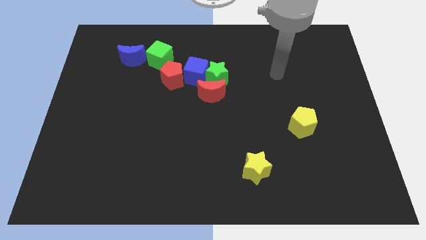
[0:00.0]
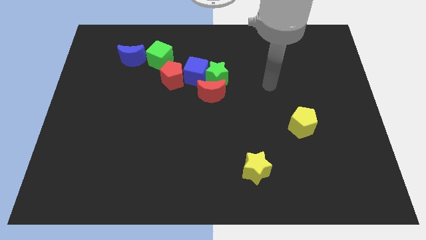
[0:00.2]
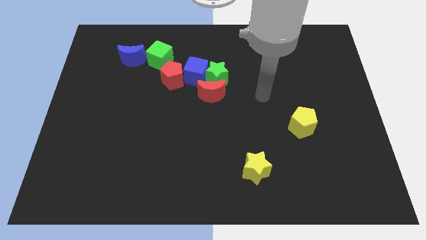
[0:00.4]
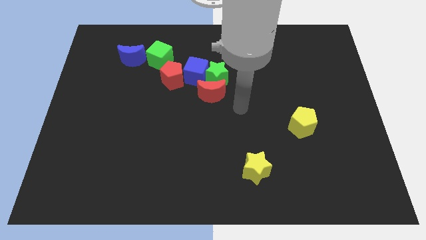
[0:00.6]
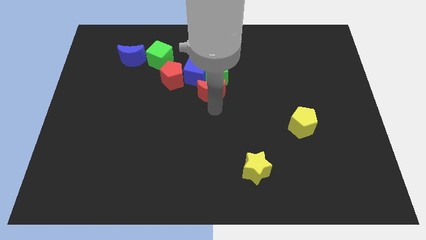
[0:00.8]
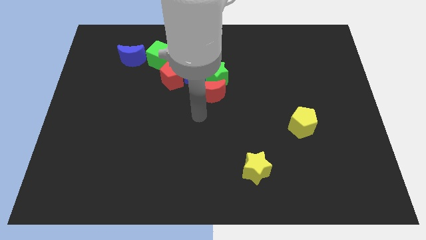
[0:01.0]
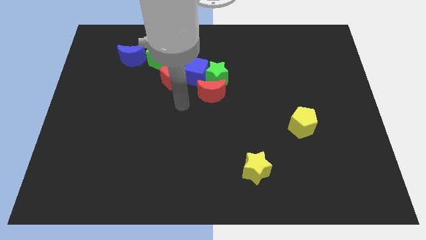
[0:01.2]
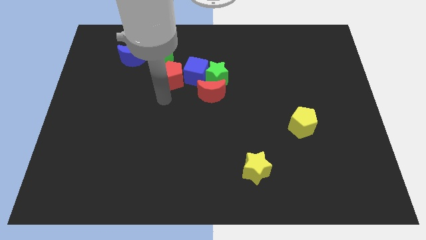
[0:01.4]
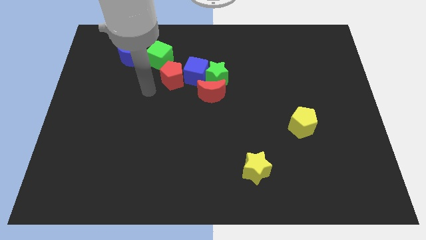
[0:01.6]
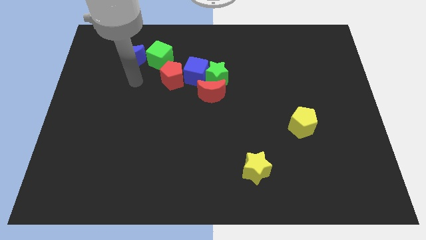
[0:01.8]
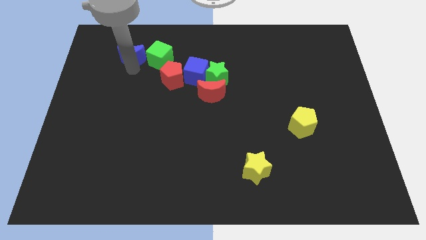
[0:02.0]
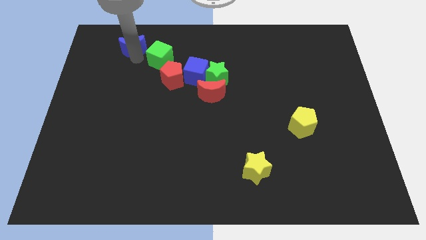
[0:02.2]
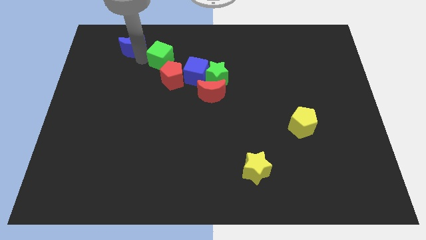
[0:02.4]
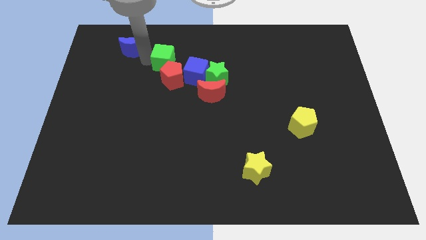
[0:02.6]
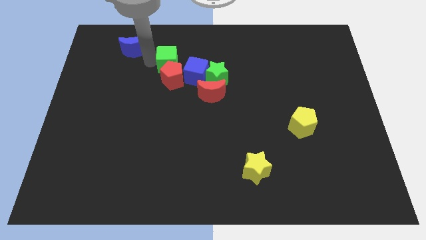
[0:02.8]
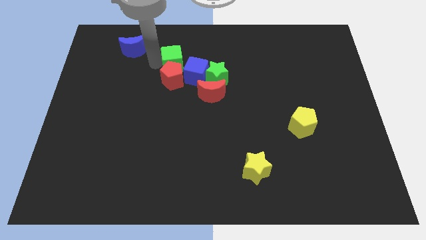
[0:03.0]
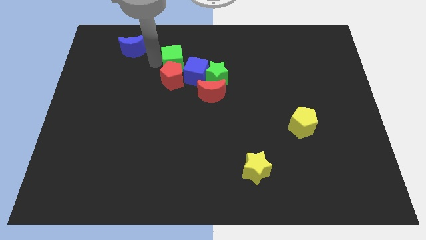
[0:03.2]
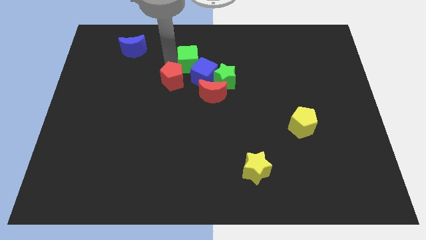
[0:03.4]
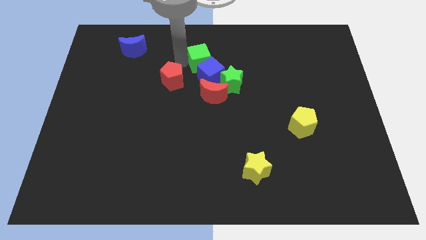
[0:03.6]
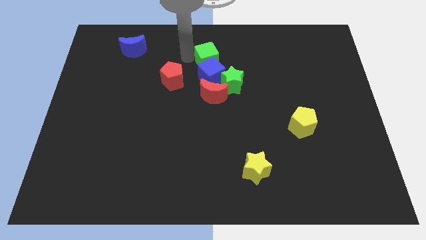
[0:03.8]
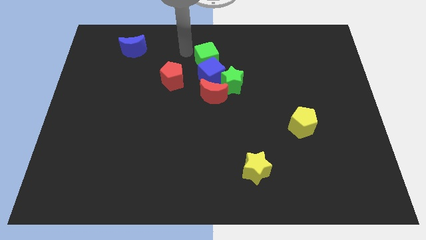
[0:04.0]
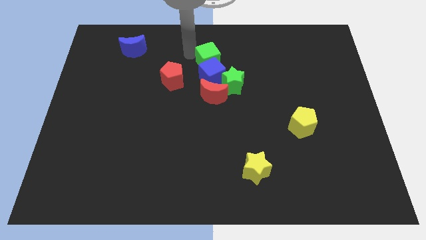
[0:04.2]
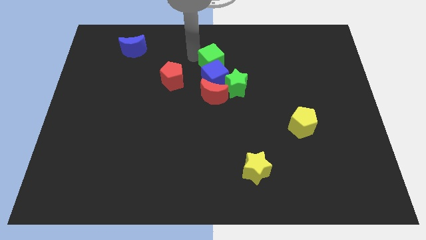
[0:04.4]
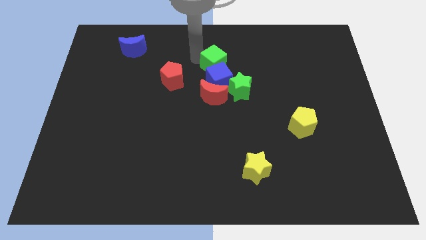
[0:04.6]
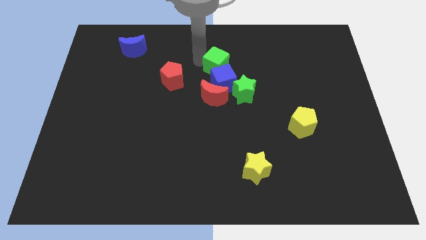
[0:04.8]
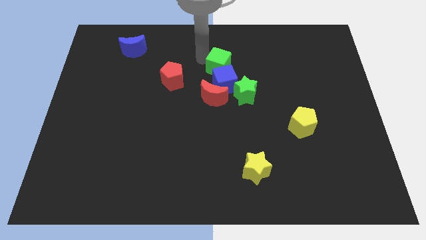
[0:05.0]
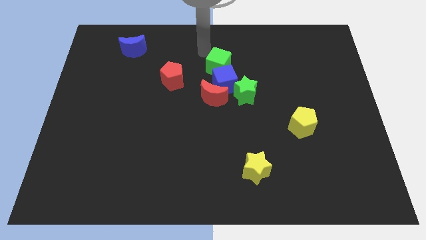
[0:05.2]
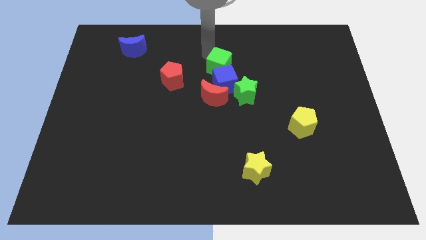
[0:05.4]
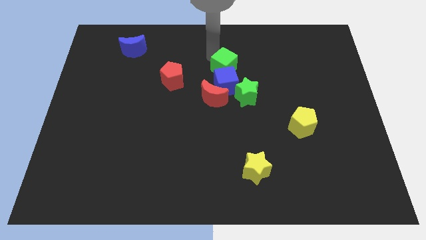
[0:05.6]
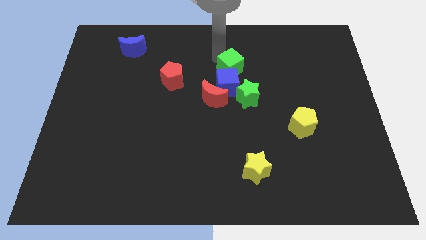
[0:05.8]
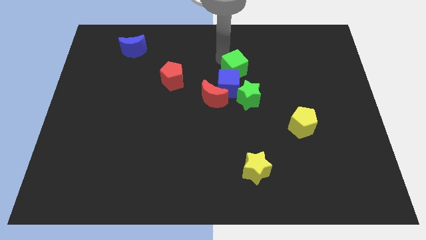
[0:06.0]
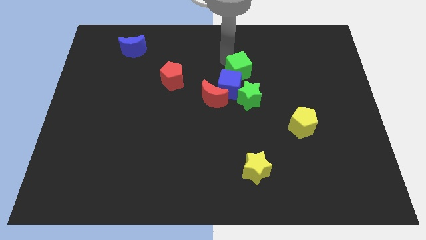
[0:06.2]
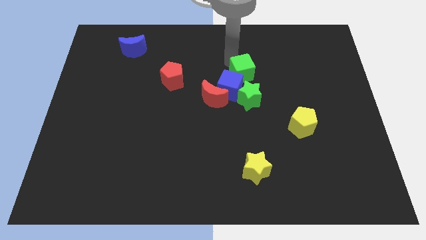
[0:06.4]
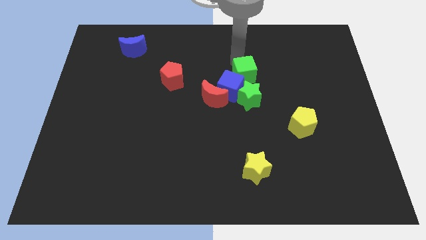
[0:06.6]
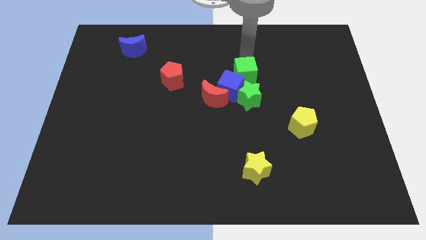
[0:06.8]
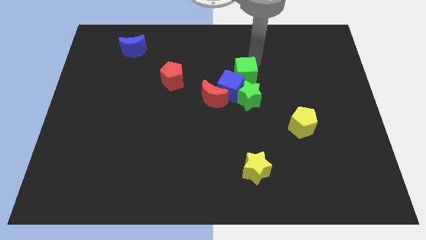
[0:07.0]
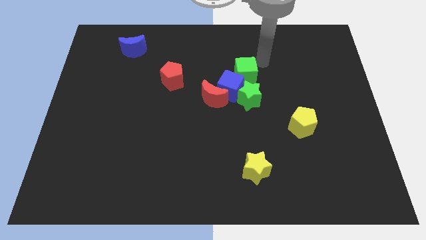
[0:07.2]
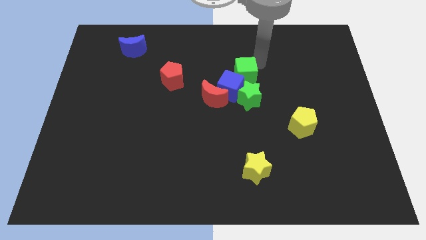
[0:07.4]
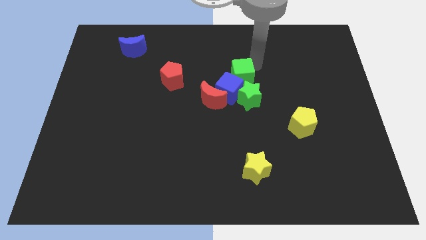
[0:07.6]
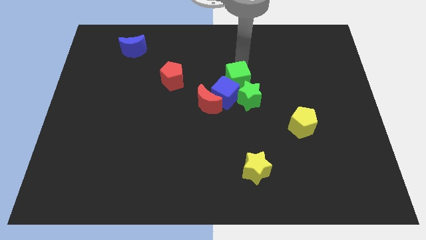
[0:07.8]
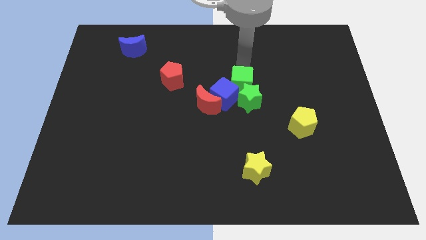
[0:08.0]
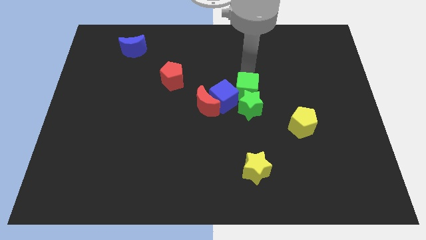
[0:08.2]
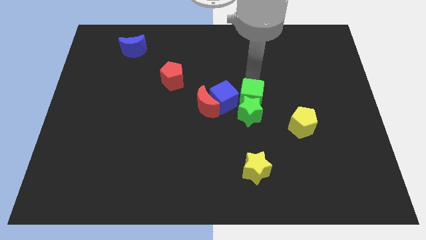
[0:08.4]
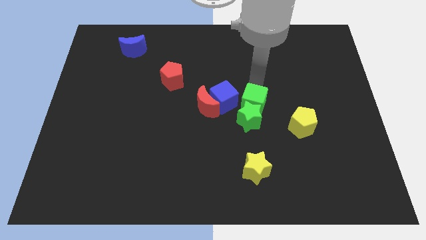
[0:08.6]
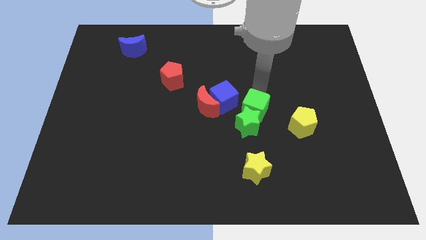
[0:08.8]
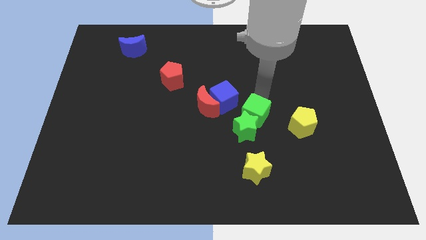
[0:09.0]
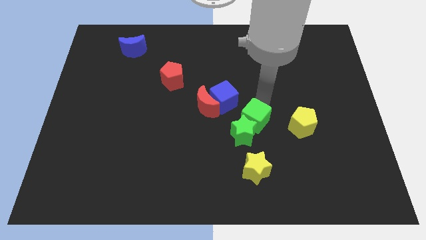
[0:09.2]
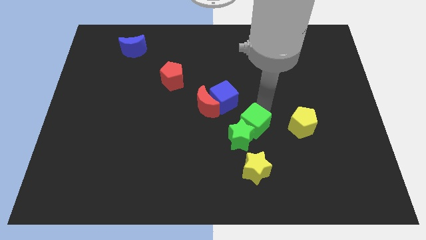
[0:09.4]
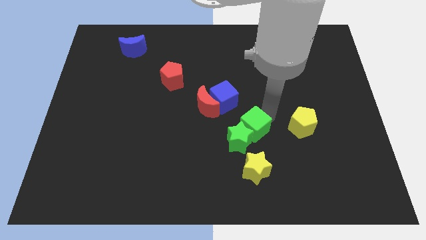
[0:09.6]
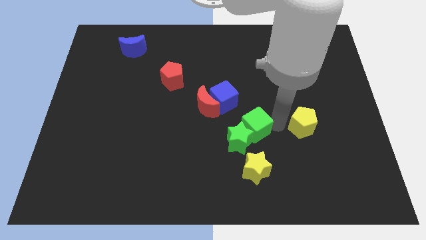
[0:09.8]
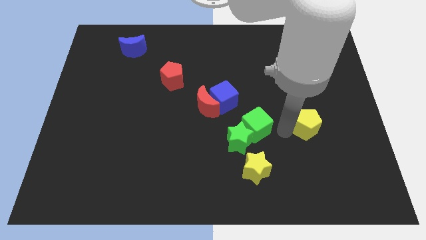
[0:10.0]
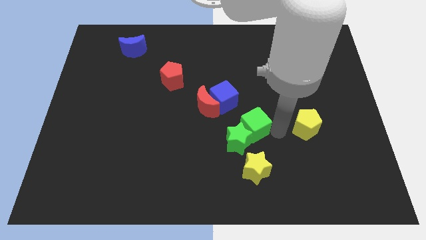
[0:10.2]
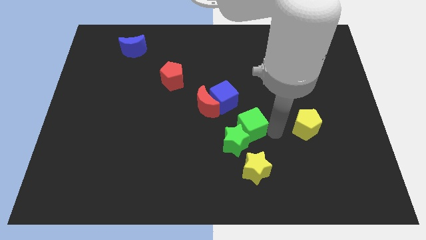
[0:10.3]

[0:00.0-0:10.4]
put the green cube to the bottom right of the red moon

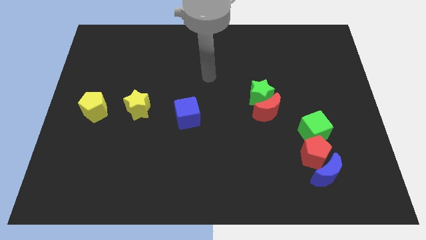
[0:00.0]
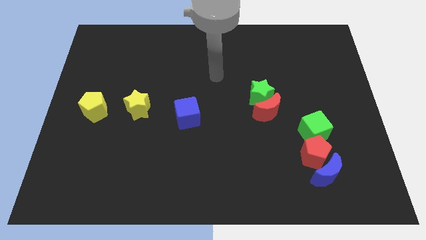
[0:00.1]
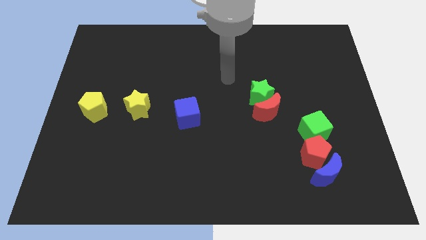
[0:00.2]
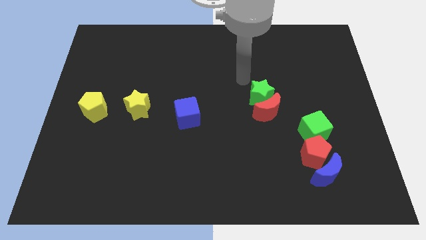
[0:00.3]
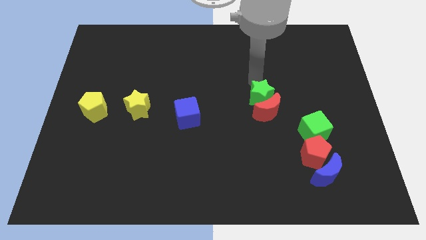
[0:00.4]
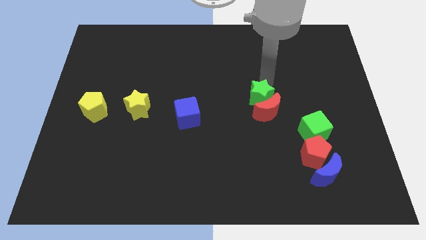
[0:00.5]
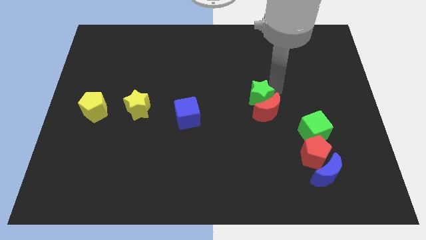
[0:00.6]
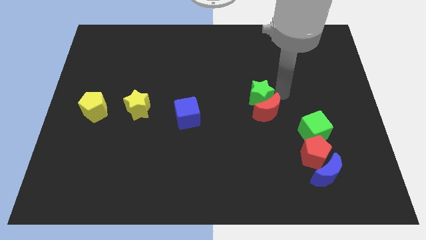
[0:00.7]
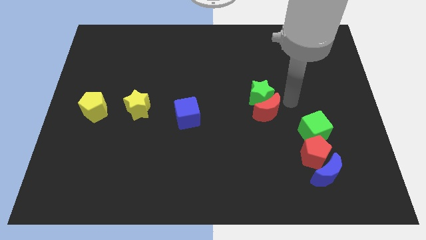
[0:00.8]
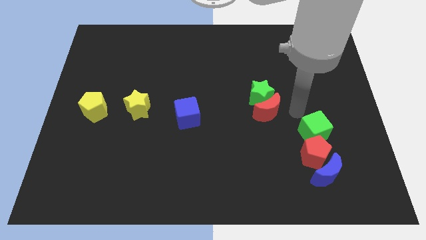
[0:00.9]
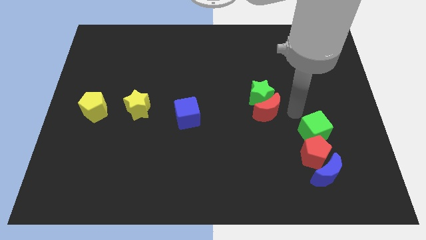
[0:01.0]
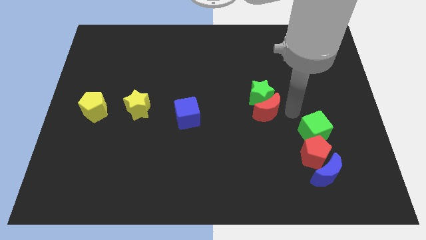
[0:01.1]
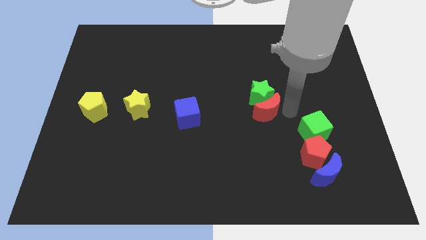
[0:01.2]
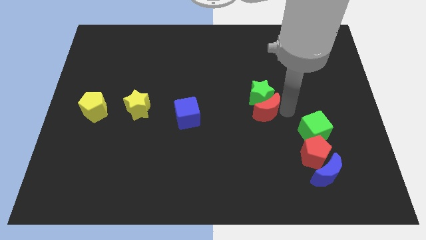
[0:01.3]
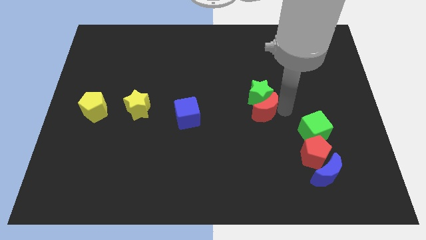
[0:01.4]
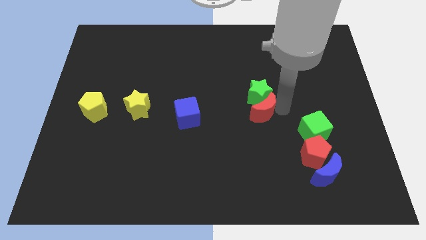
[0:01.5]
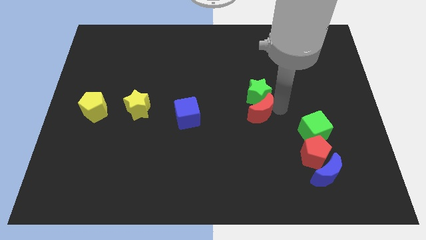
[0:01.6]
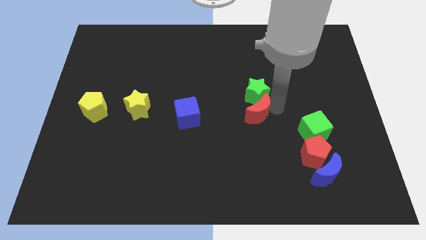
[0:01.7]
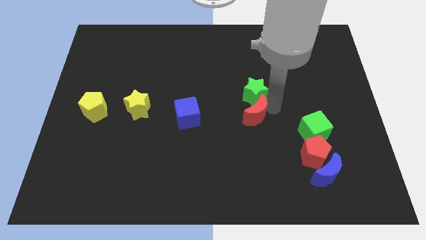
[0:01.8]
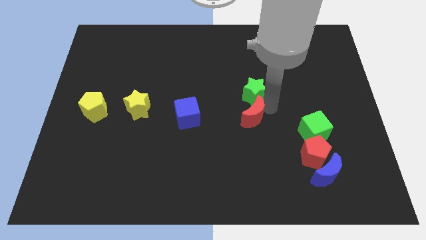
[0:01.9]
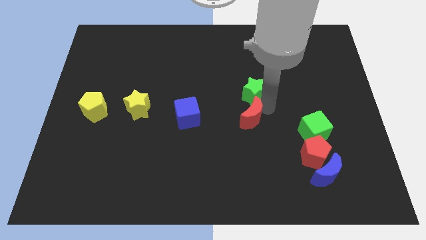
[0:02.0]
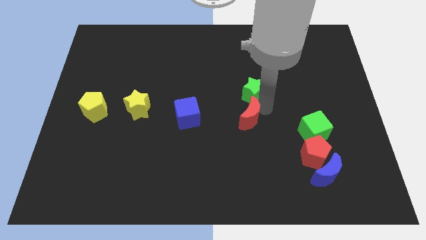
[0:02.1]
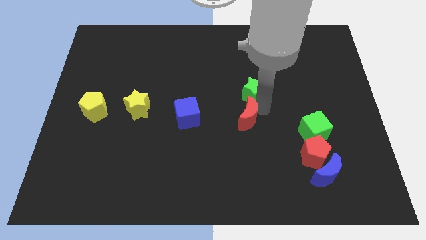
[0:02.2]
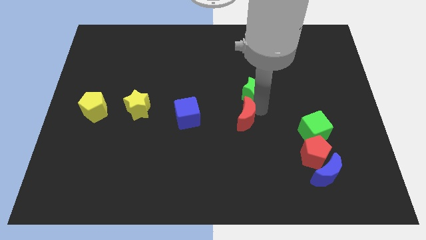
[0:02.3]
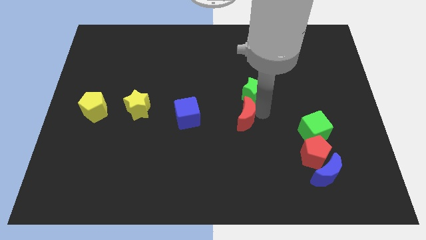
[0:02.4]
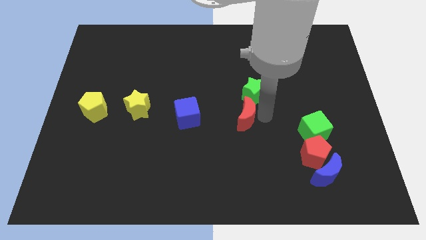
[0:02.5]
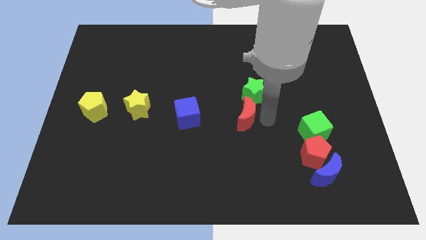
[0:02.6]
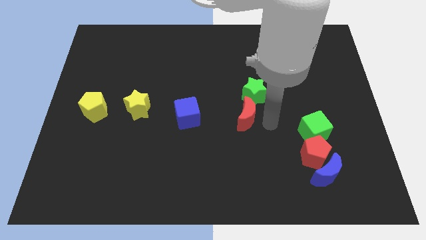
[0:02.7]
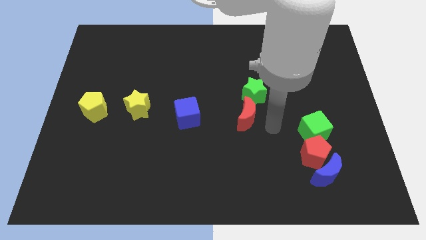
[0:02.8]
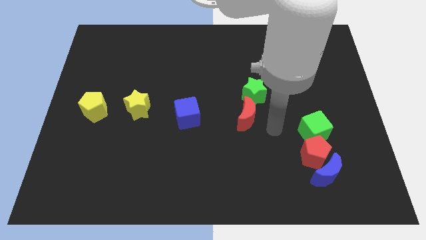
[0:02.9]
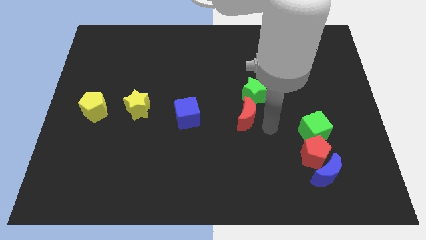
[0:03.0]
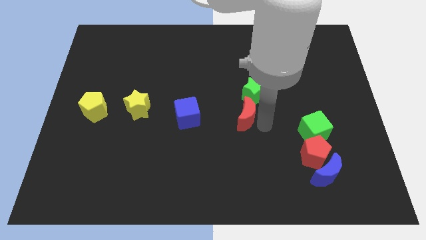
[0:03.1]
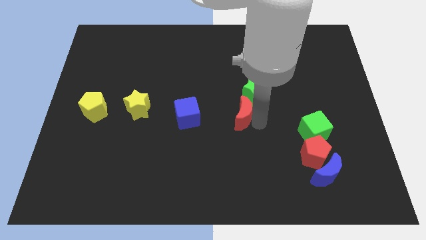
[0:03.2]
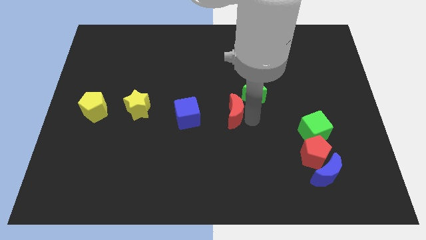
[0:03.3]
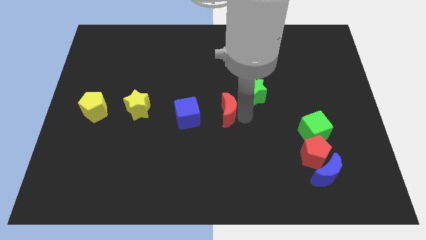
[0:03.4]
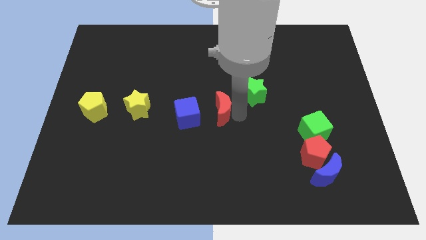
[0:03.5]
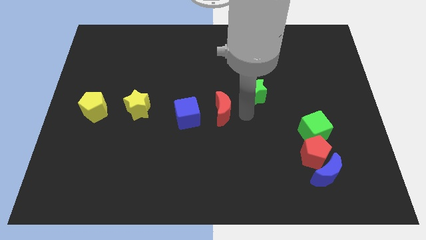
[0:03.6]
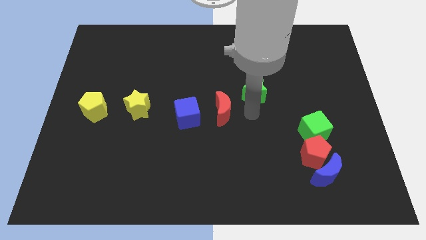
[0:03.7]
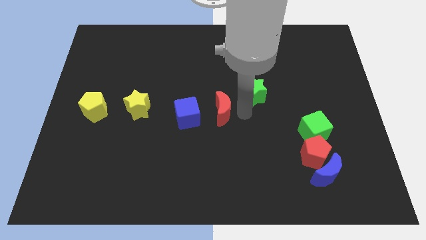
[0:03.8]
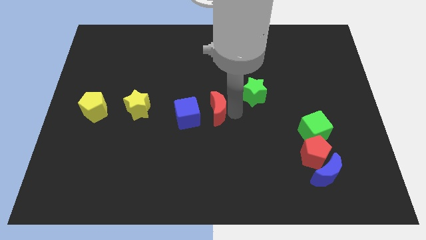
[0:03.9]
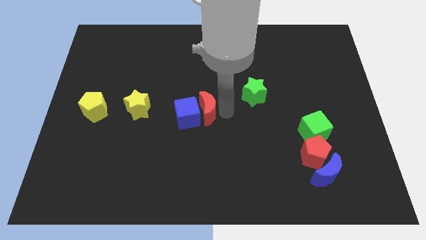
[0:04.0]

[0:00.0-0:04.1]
put the red moon right of the yellow star
